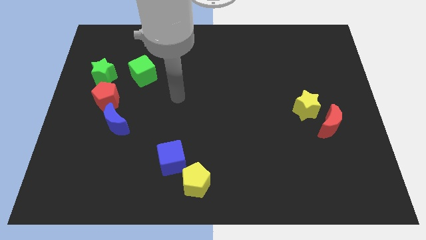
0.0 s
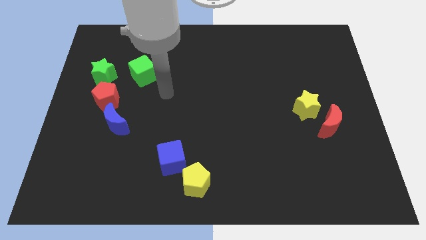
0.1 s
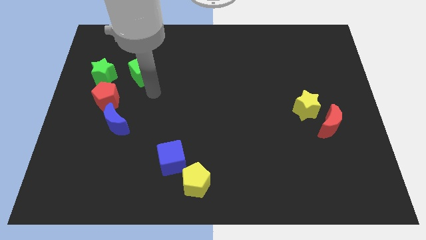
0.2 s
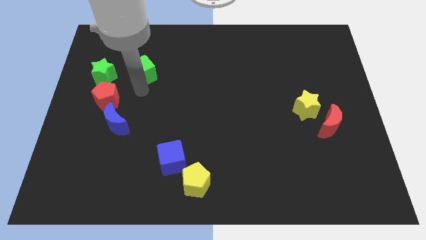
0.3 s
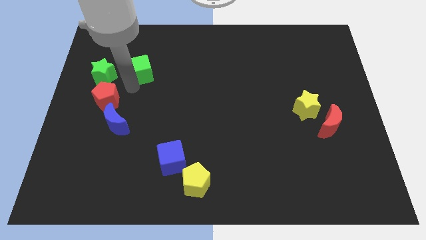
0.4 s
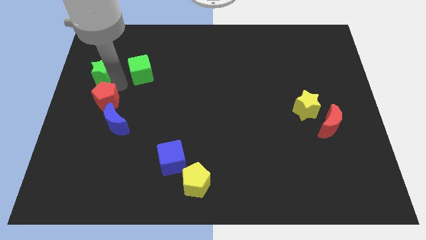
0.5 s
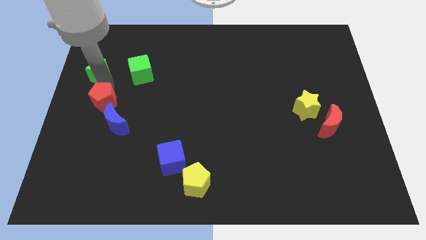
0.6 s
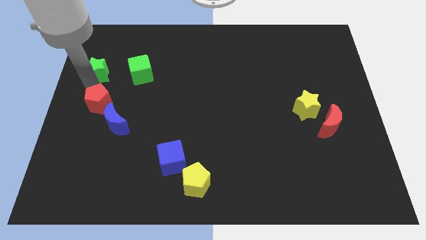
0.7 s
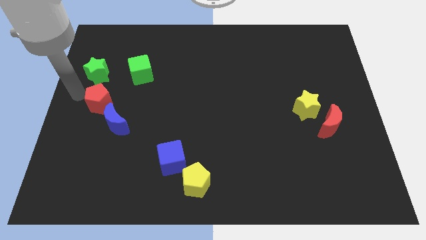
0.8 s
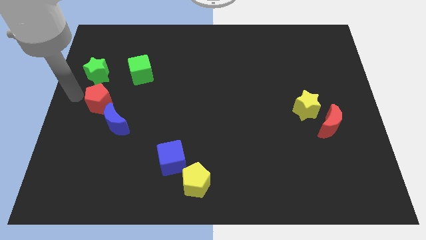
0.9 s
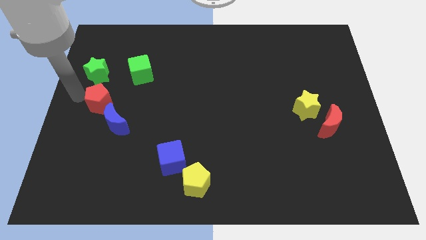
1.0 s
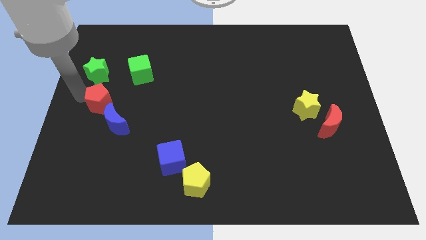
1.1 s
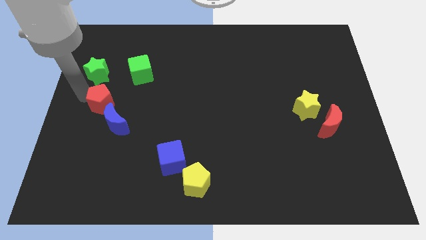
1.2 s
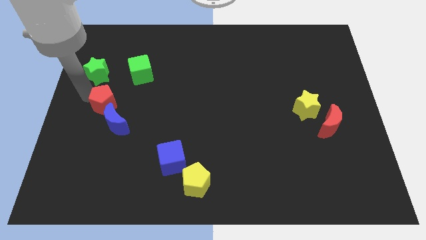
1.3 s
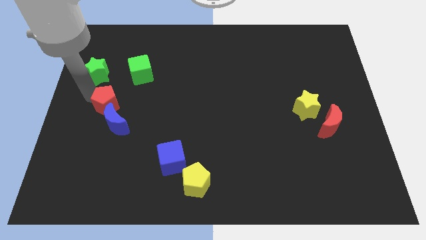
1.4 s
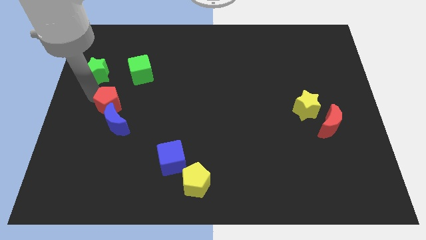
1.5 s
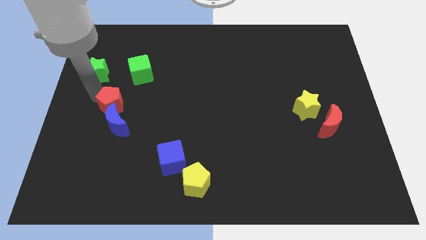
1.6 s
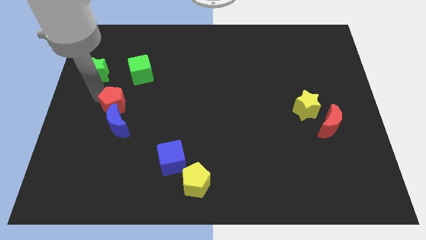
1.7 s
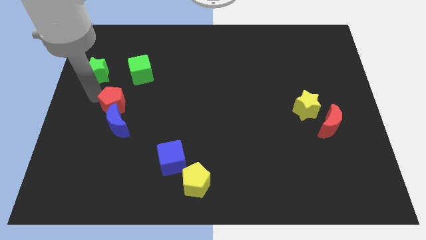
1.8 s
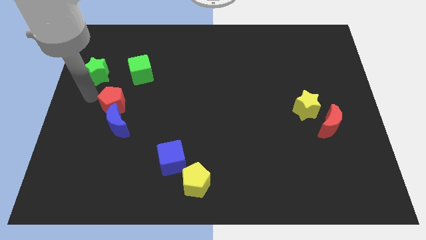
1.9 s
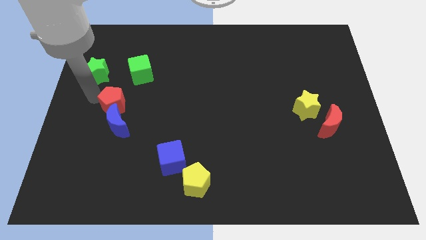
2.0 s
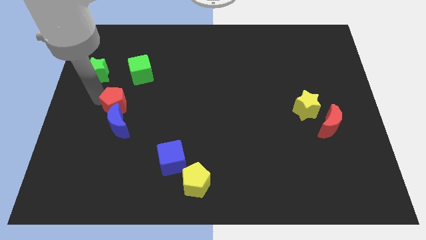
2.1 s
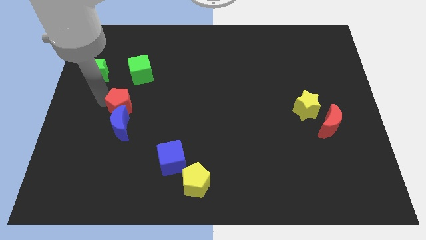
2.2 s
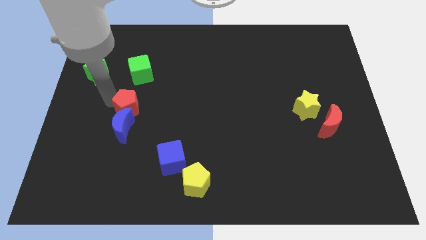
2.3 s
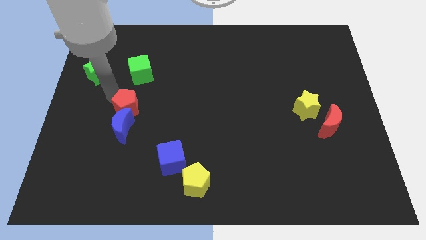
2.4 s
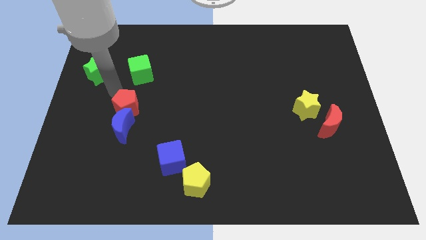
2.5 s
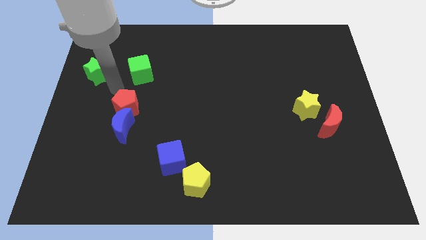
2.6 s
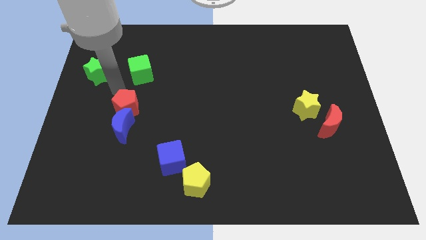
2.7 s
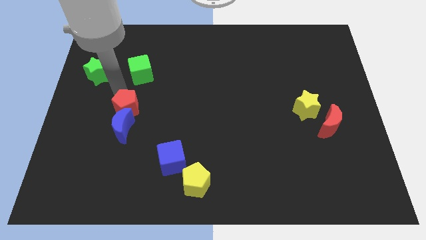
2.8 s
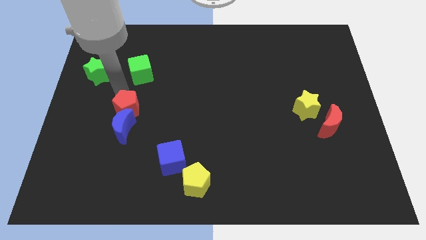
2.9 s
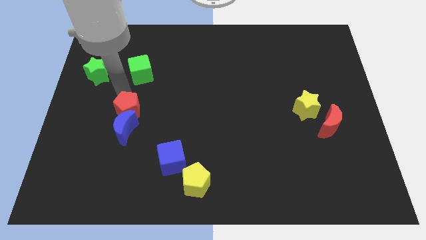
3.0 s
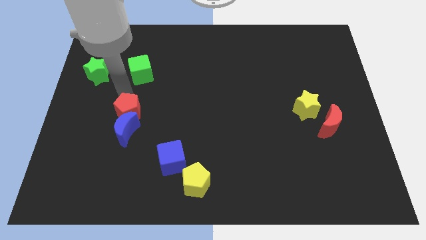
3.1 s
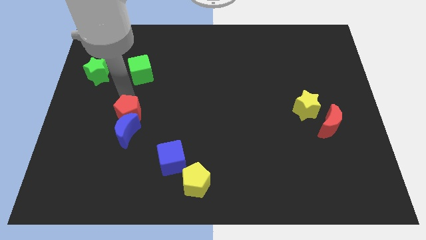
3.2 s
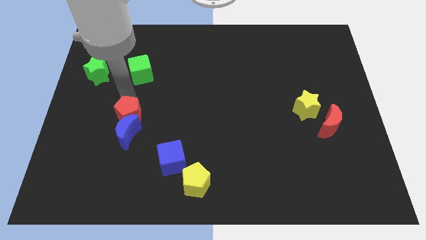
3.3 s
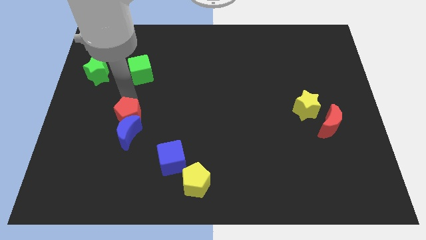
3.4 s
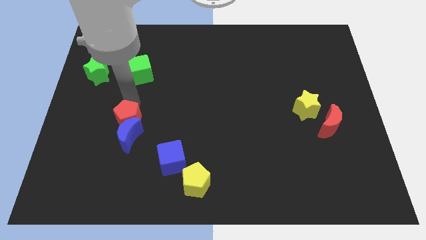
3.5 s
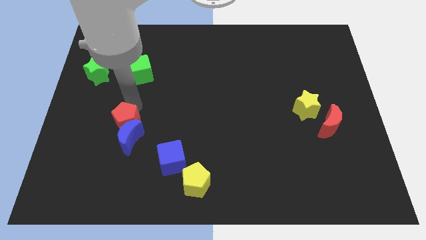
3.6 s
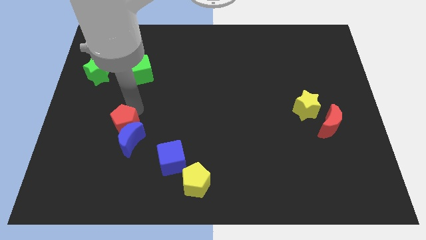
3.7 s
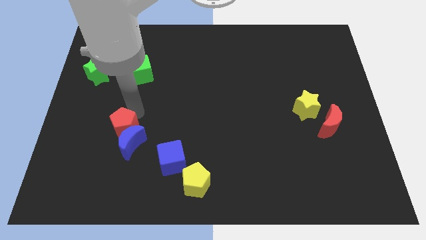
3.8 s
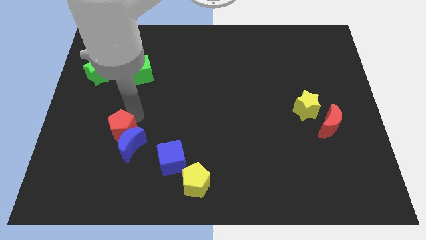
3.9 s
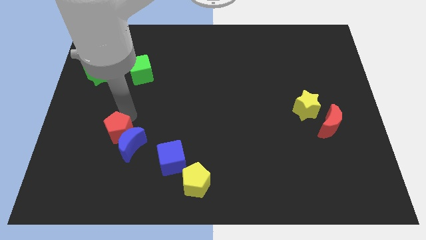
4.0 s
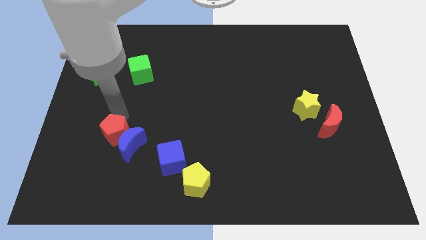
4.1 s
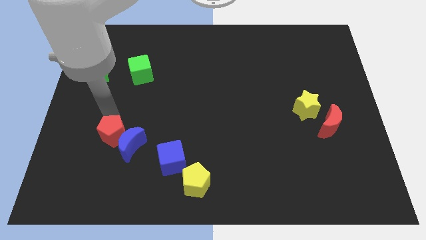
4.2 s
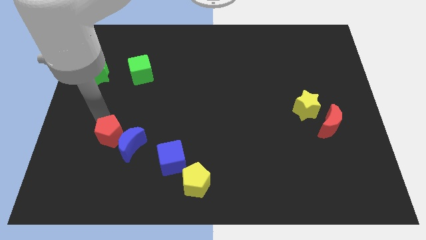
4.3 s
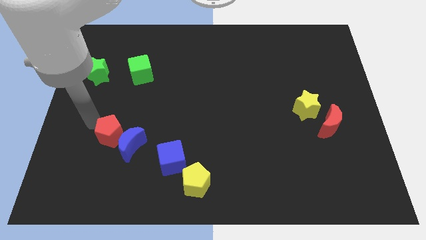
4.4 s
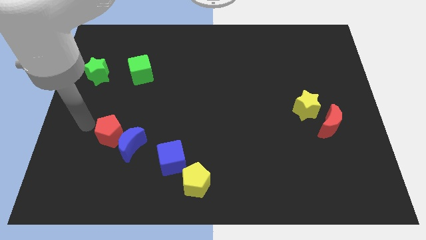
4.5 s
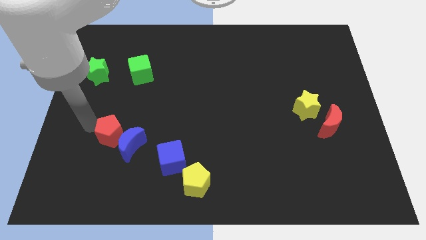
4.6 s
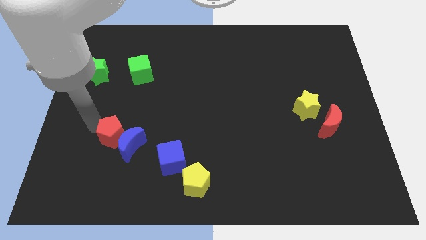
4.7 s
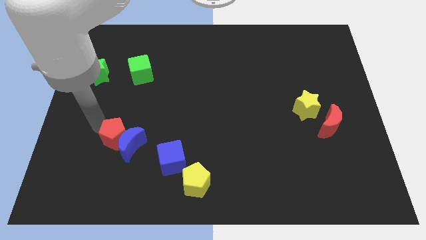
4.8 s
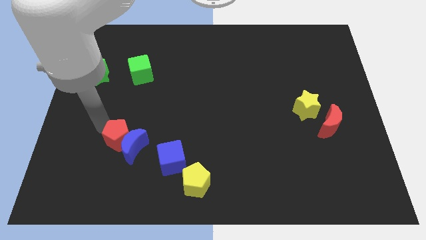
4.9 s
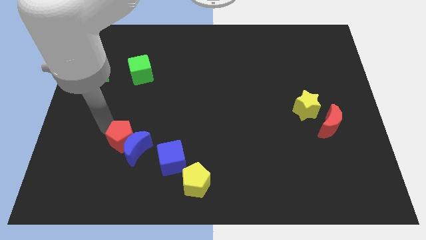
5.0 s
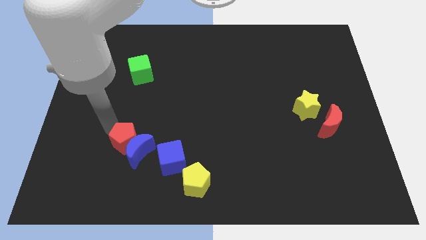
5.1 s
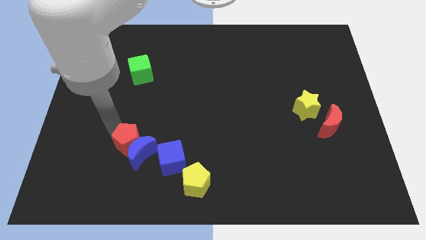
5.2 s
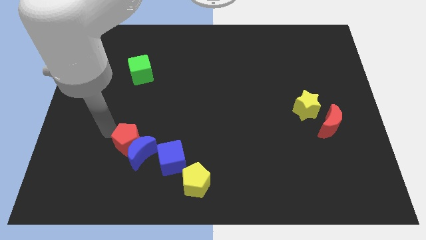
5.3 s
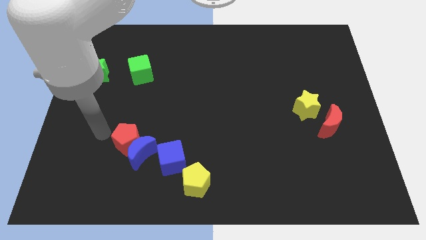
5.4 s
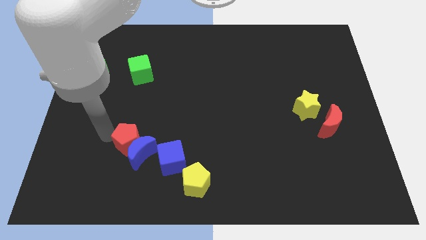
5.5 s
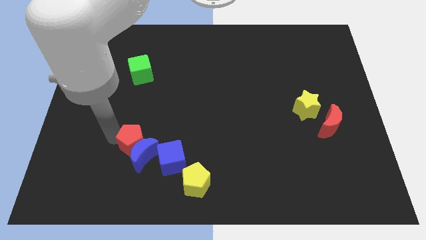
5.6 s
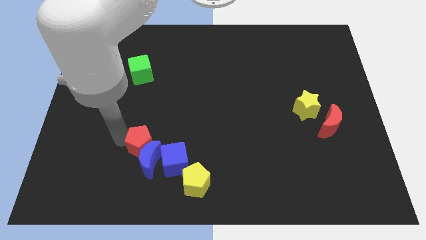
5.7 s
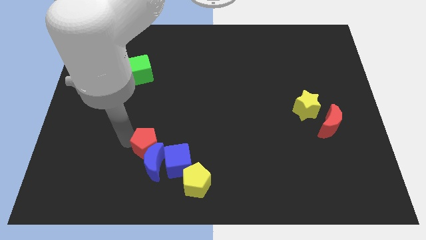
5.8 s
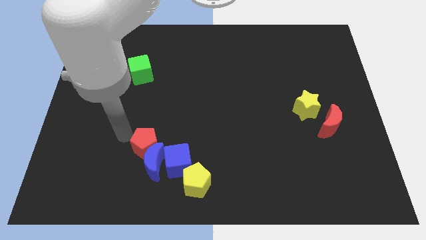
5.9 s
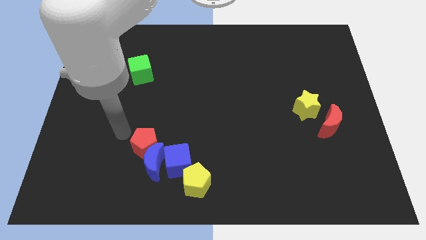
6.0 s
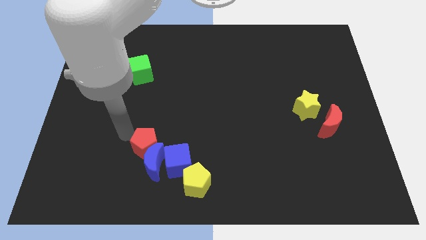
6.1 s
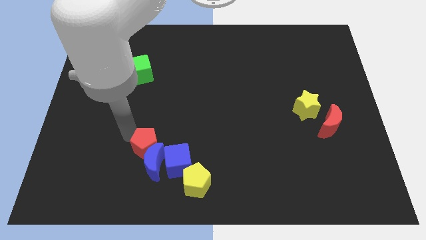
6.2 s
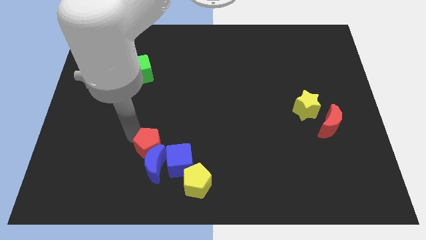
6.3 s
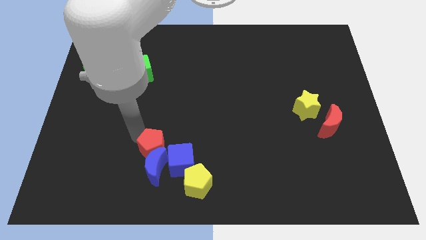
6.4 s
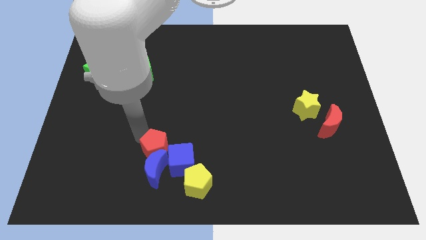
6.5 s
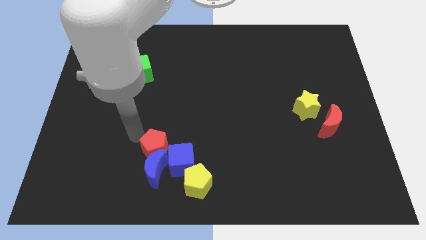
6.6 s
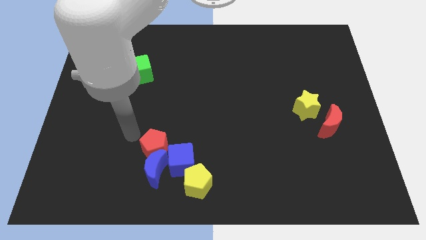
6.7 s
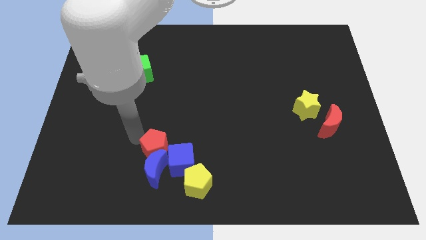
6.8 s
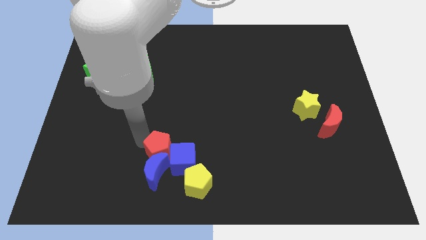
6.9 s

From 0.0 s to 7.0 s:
push the red pentagon to the blue cube
